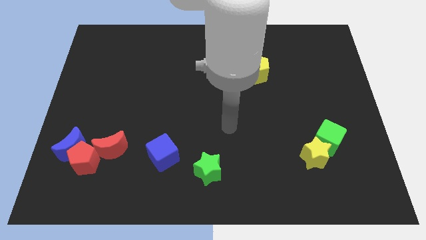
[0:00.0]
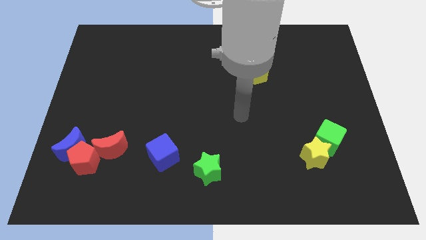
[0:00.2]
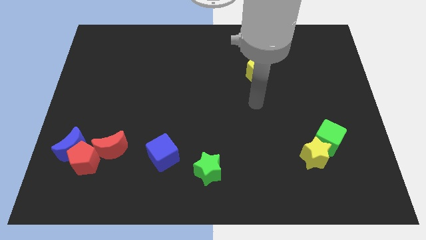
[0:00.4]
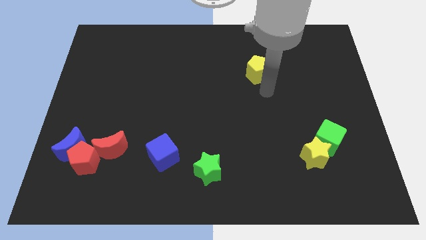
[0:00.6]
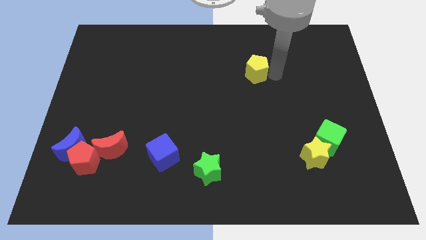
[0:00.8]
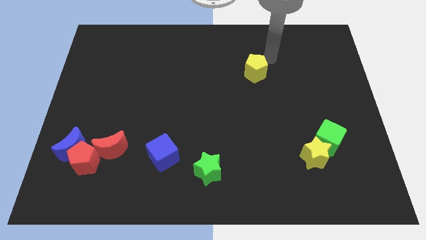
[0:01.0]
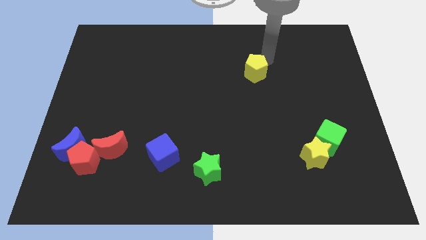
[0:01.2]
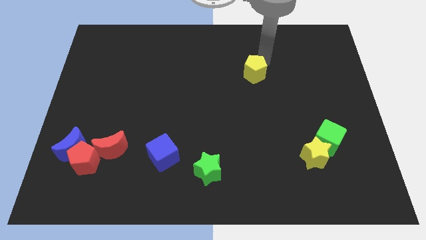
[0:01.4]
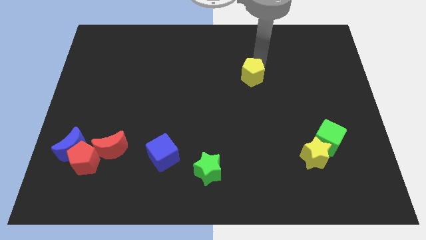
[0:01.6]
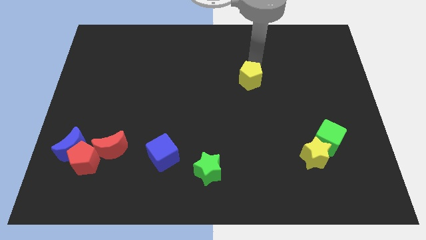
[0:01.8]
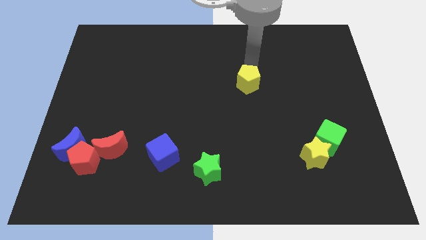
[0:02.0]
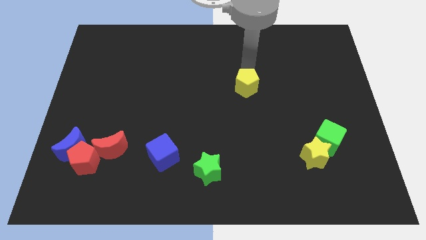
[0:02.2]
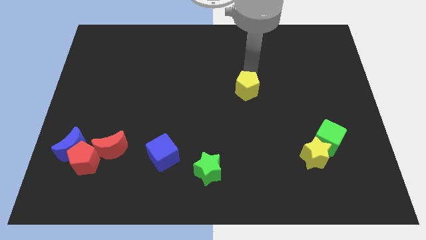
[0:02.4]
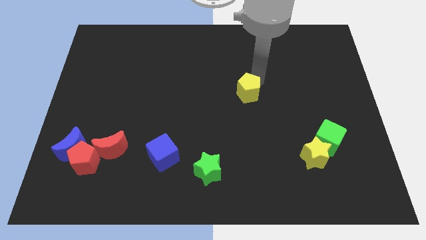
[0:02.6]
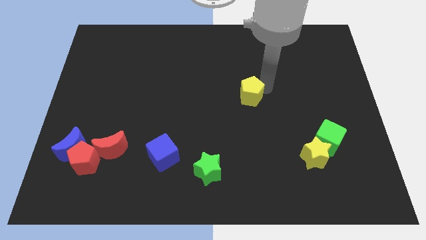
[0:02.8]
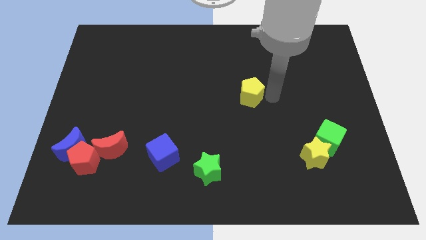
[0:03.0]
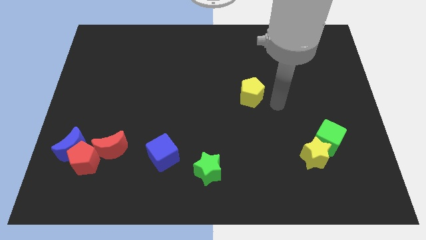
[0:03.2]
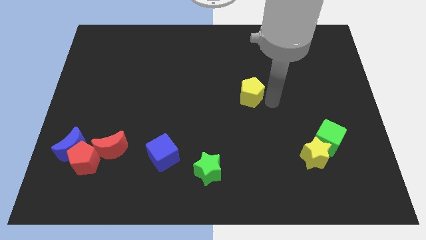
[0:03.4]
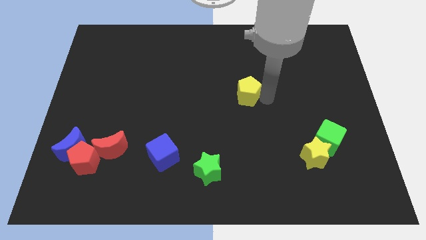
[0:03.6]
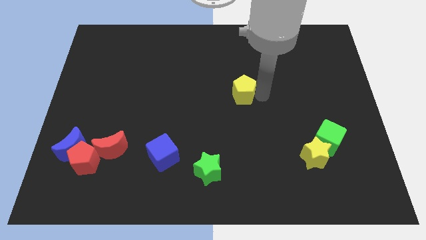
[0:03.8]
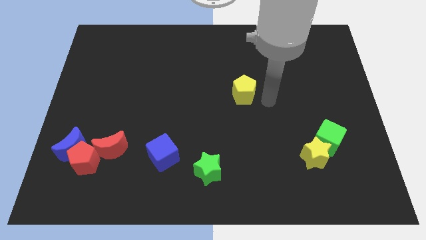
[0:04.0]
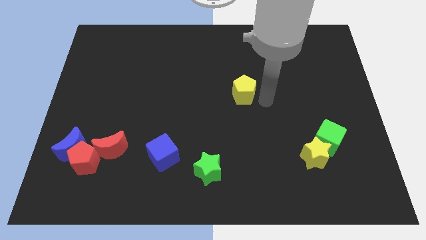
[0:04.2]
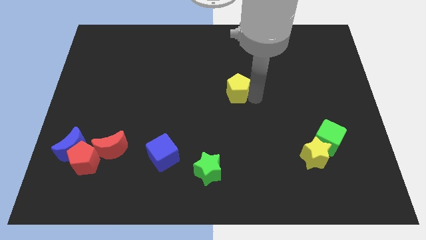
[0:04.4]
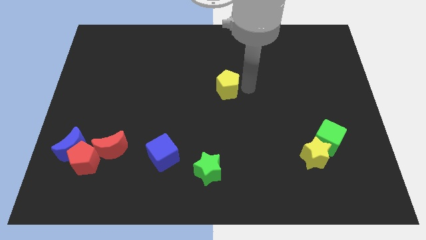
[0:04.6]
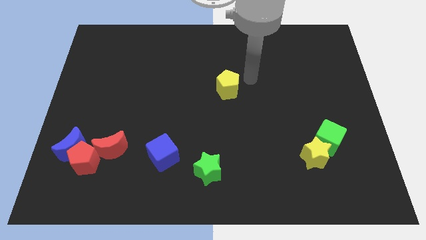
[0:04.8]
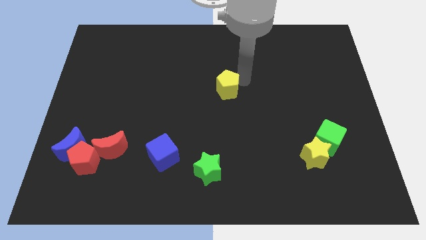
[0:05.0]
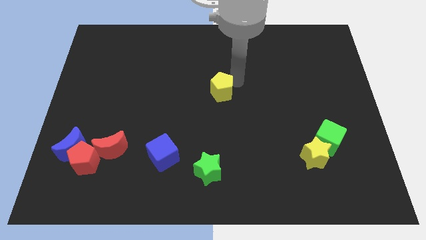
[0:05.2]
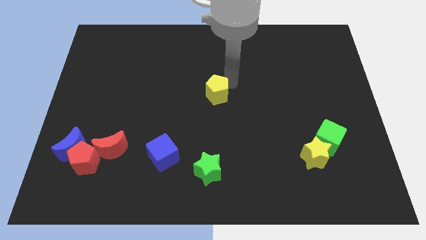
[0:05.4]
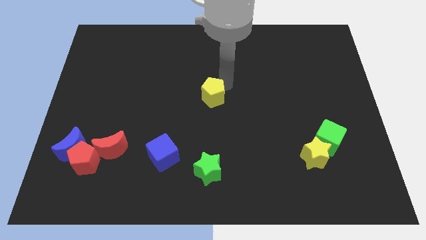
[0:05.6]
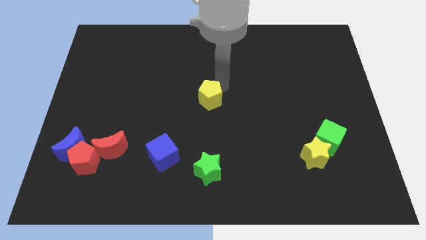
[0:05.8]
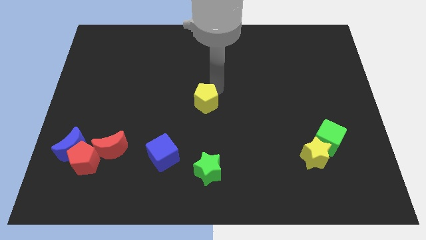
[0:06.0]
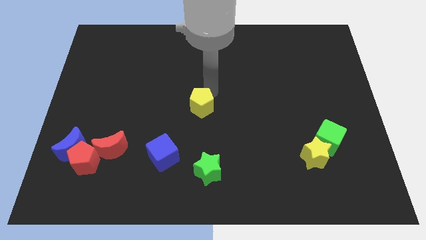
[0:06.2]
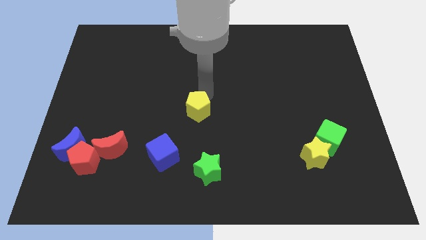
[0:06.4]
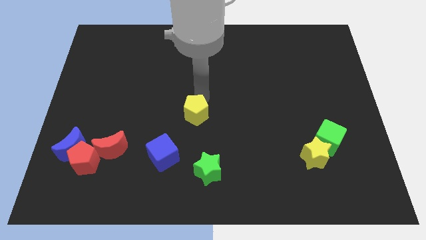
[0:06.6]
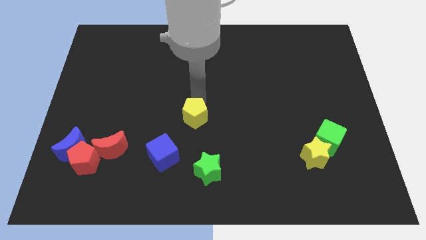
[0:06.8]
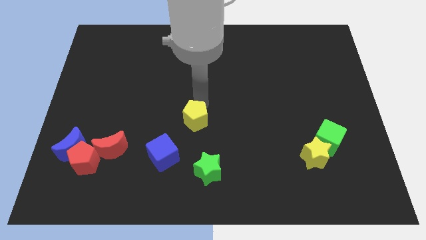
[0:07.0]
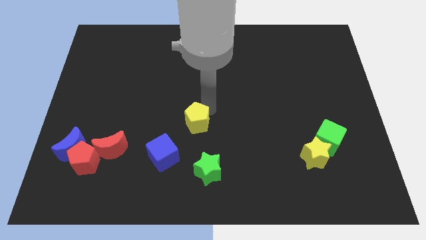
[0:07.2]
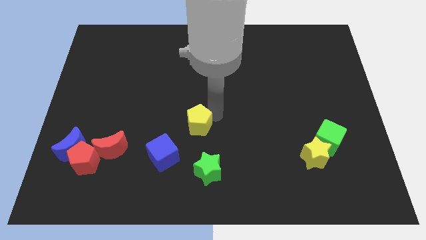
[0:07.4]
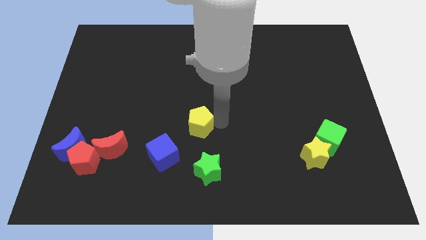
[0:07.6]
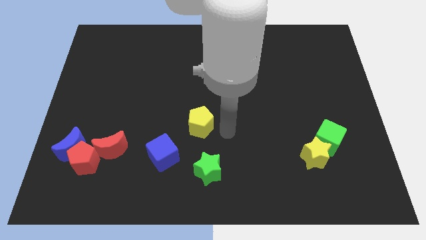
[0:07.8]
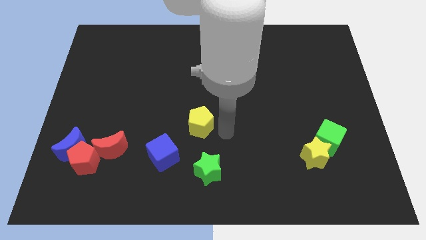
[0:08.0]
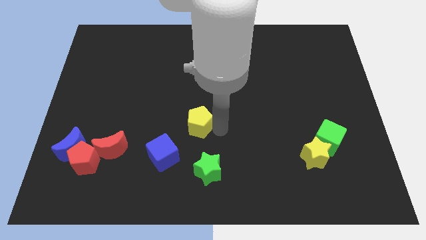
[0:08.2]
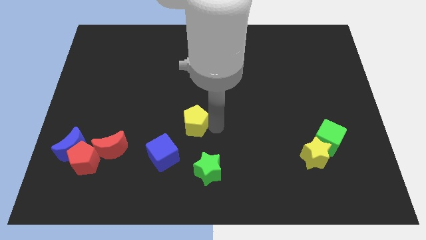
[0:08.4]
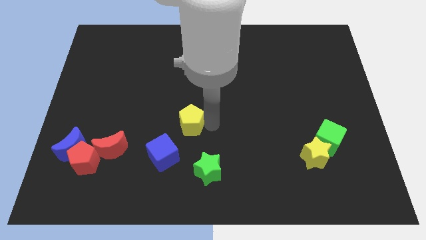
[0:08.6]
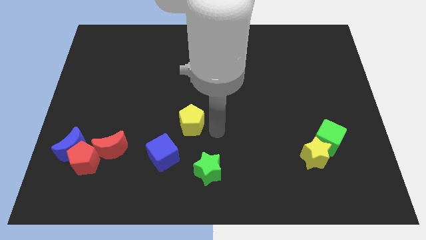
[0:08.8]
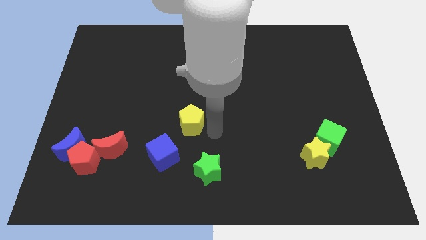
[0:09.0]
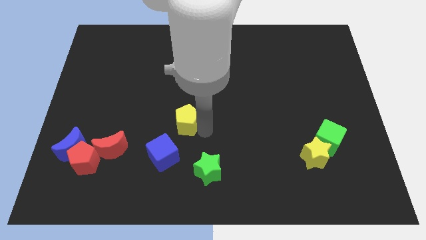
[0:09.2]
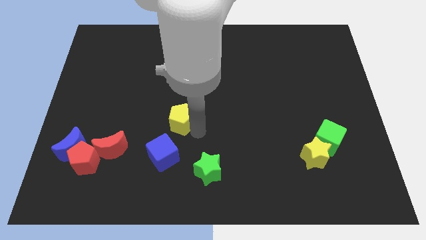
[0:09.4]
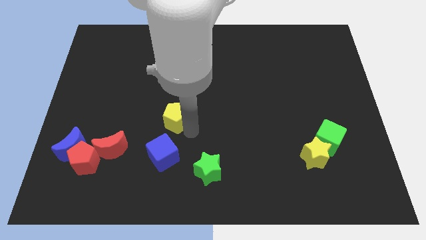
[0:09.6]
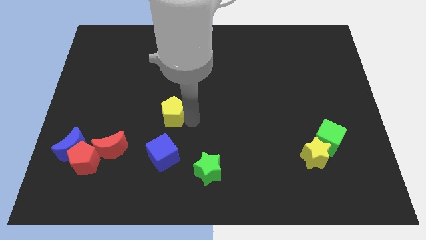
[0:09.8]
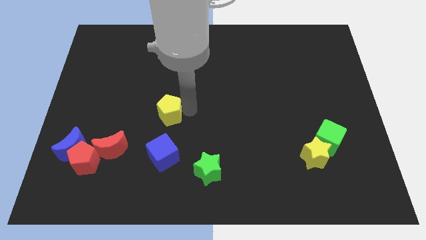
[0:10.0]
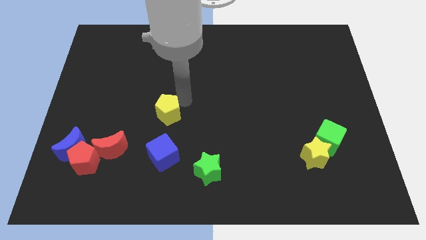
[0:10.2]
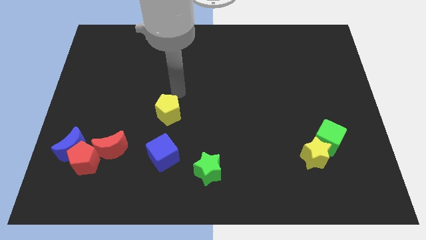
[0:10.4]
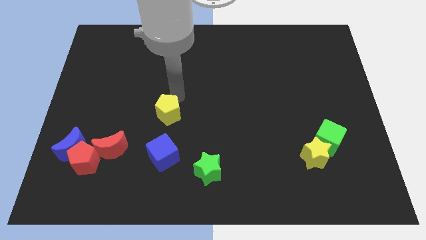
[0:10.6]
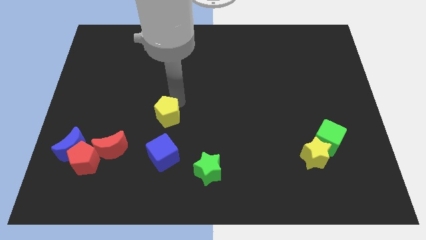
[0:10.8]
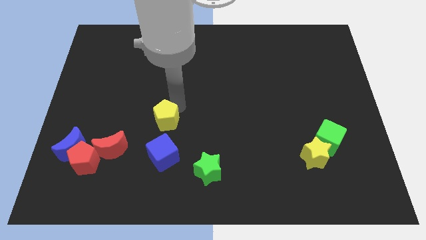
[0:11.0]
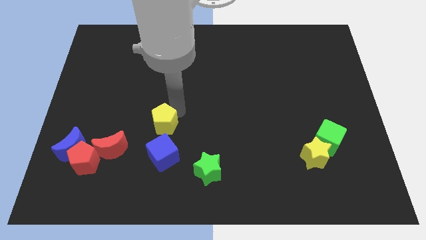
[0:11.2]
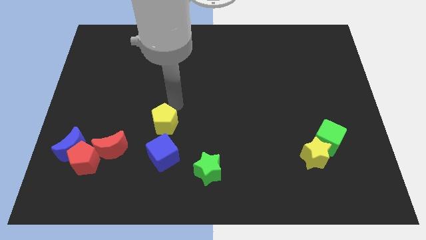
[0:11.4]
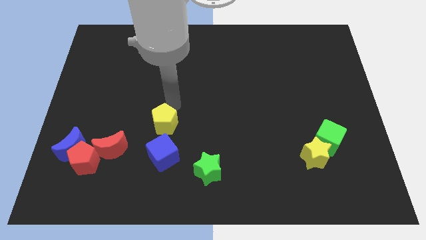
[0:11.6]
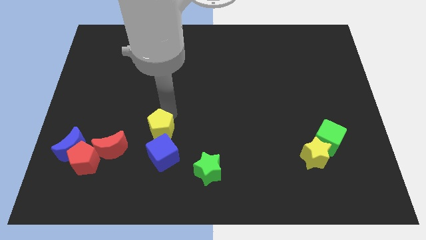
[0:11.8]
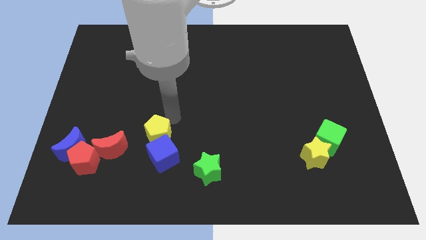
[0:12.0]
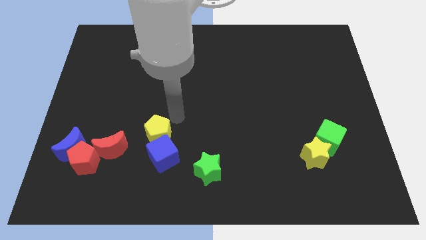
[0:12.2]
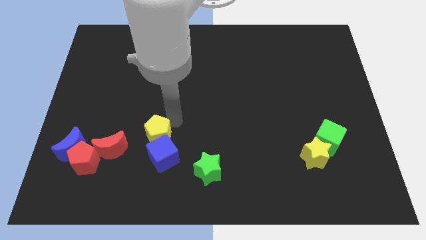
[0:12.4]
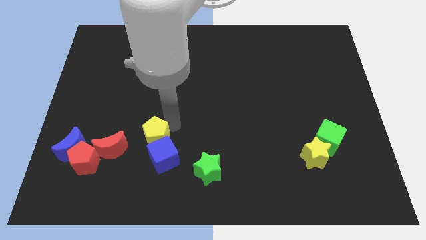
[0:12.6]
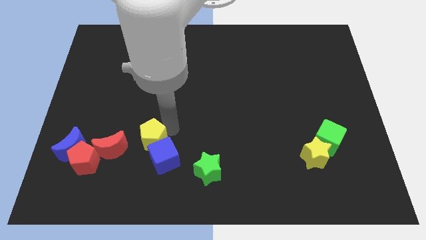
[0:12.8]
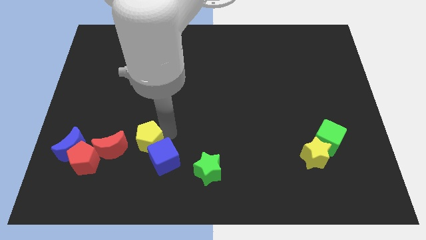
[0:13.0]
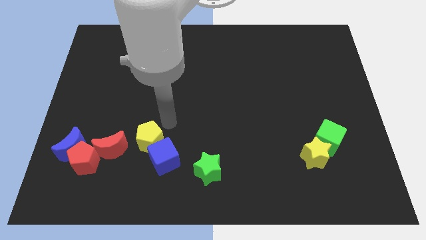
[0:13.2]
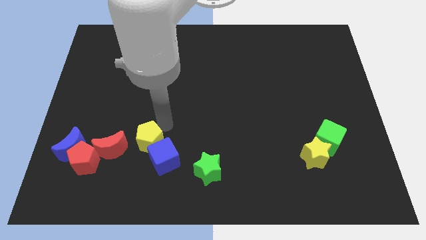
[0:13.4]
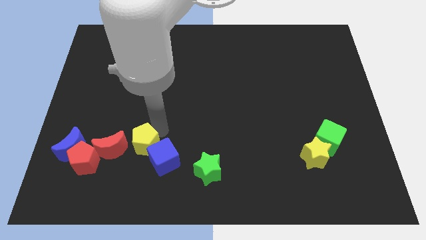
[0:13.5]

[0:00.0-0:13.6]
put the yellow pentagon right of the red pentagon
